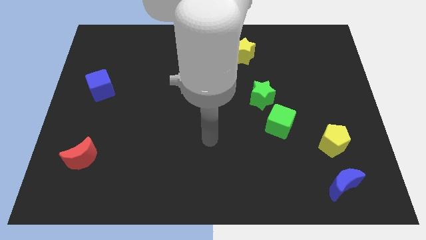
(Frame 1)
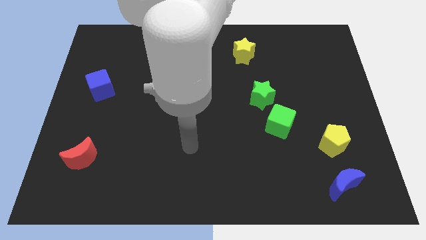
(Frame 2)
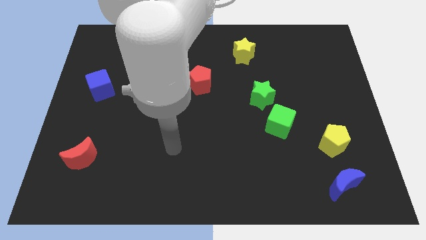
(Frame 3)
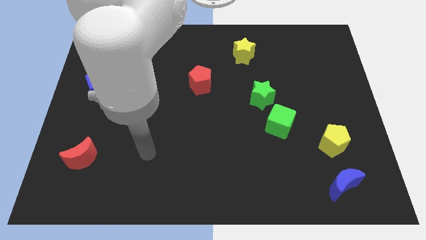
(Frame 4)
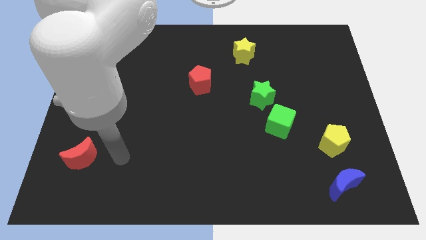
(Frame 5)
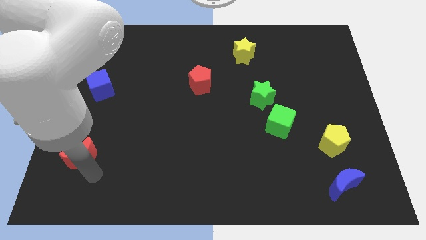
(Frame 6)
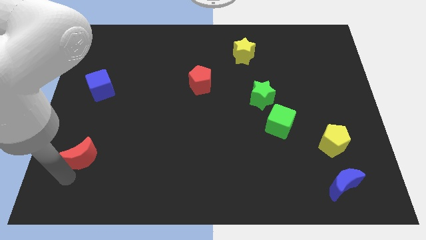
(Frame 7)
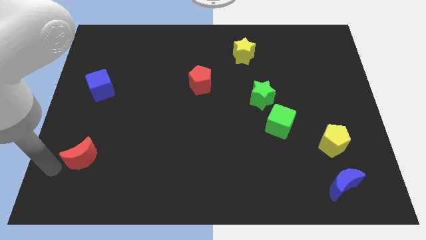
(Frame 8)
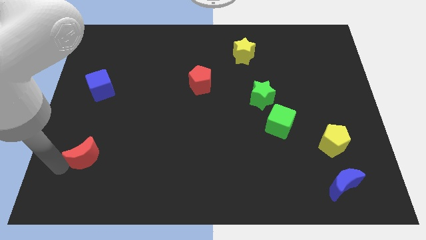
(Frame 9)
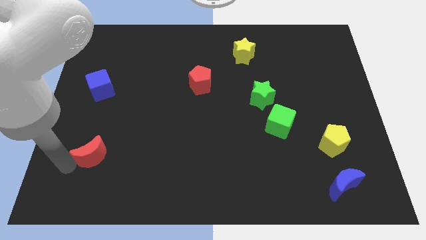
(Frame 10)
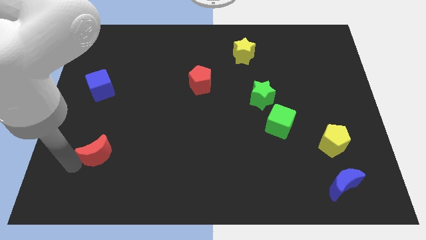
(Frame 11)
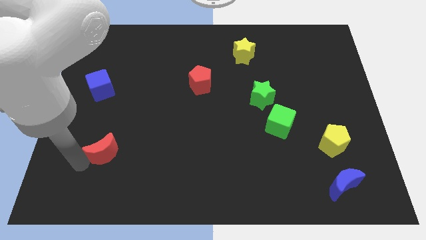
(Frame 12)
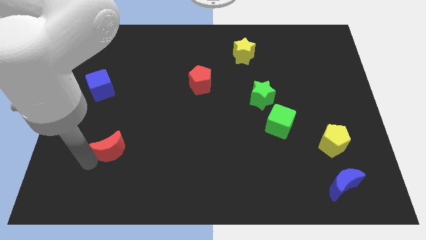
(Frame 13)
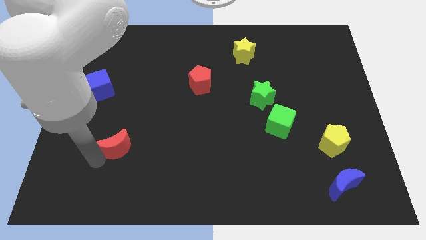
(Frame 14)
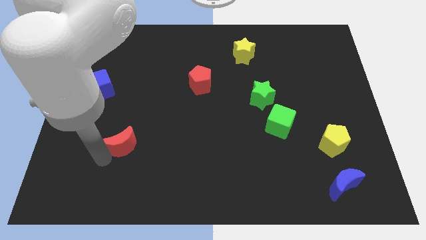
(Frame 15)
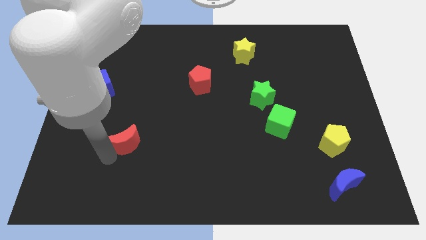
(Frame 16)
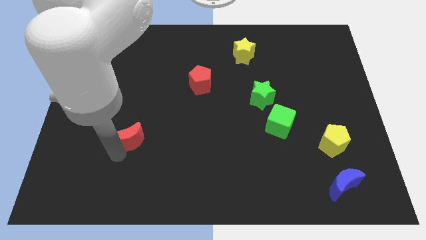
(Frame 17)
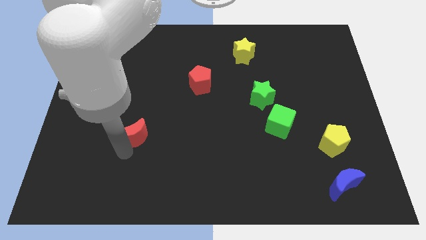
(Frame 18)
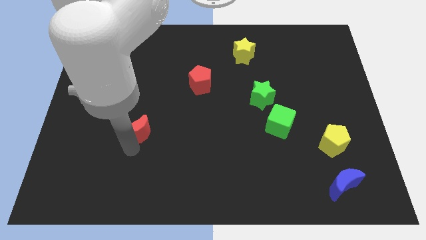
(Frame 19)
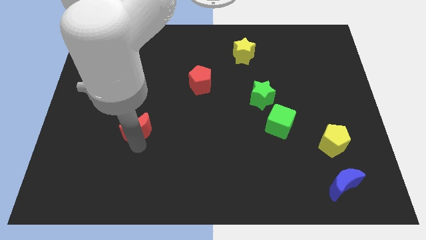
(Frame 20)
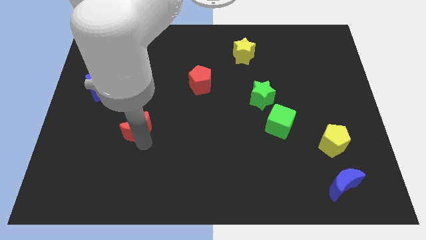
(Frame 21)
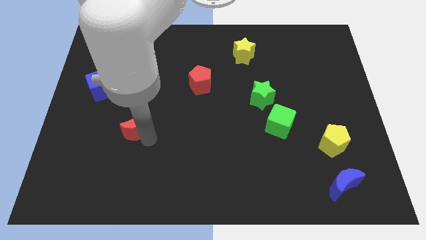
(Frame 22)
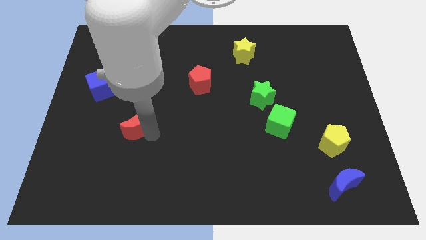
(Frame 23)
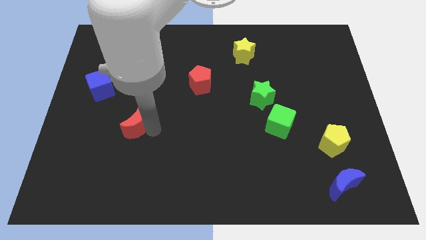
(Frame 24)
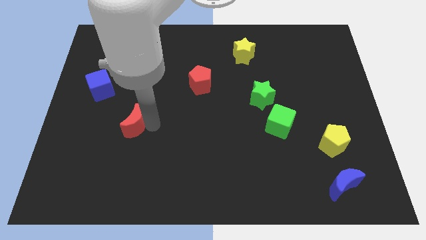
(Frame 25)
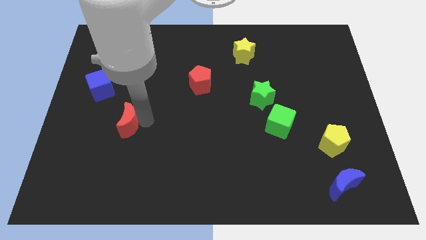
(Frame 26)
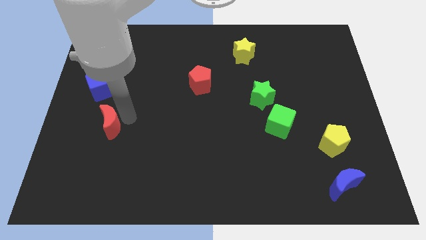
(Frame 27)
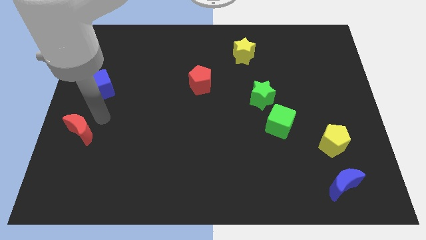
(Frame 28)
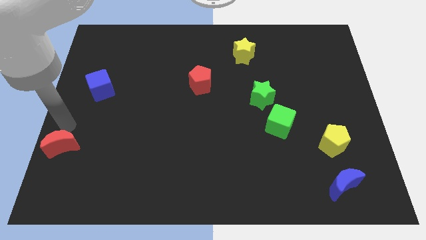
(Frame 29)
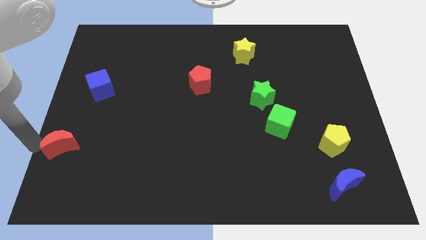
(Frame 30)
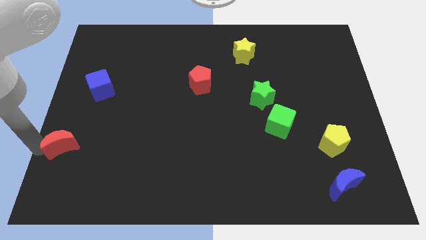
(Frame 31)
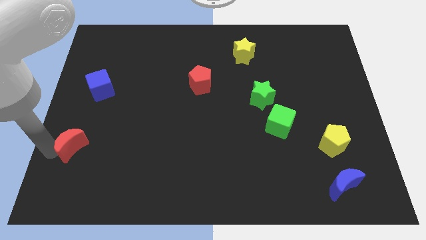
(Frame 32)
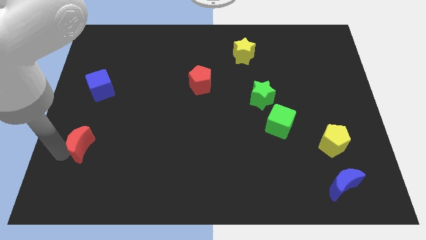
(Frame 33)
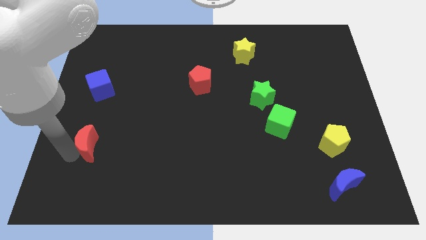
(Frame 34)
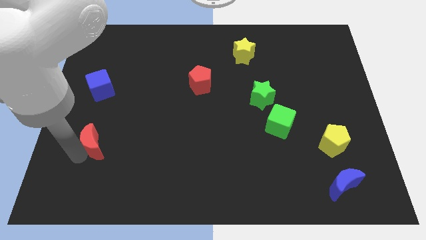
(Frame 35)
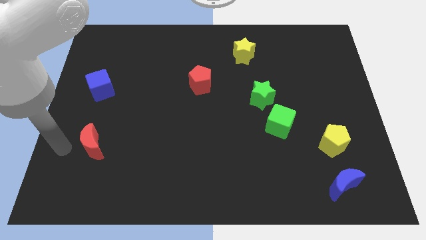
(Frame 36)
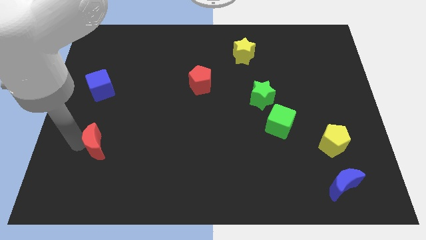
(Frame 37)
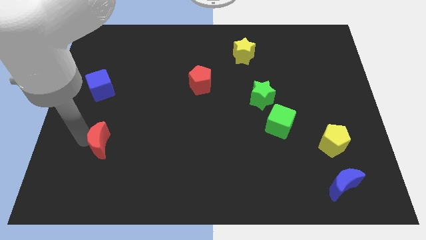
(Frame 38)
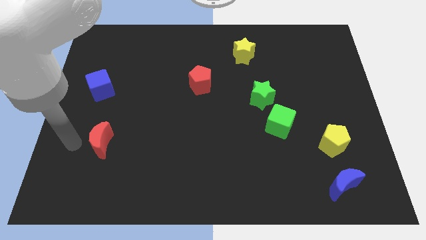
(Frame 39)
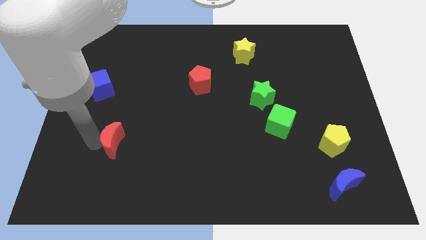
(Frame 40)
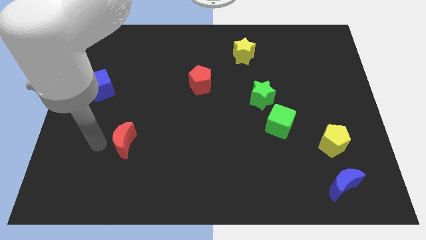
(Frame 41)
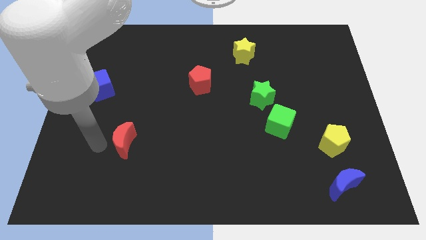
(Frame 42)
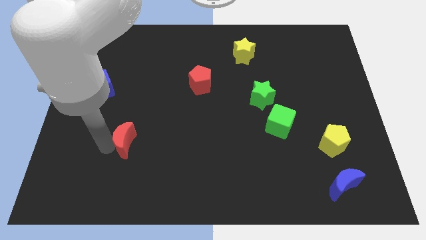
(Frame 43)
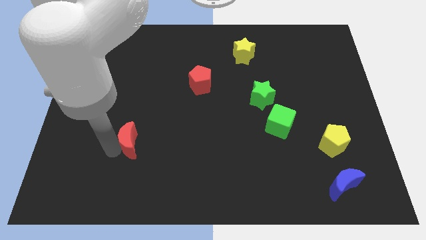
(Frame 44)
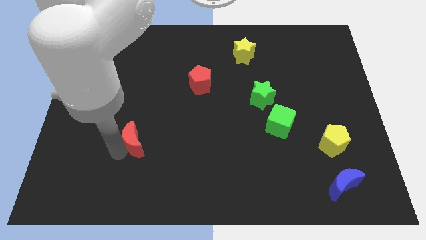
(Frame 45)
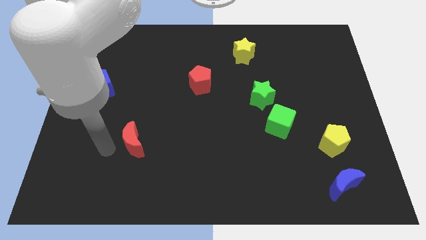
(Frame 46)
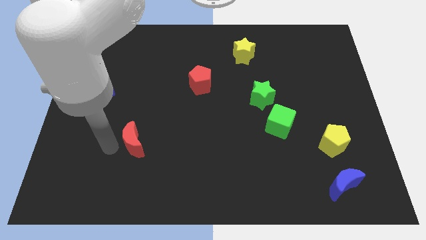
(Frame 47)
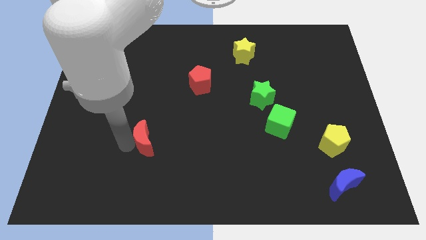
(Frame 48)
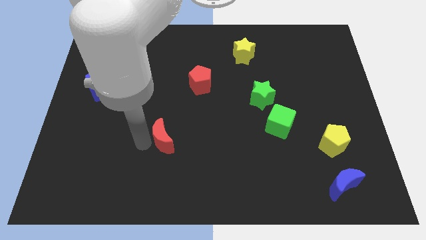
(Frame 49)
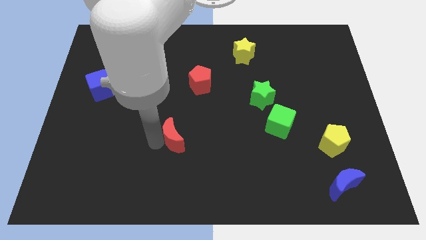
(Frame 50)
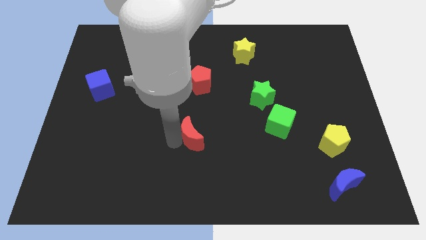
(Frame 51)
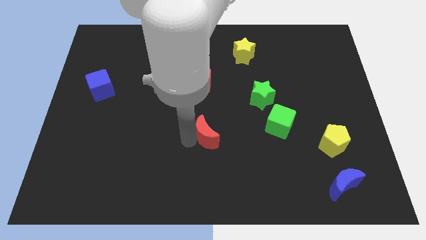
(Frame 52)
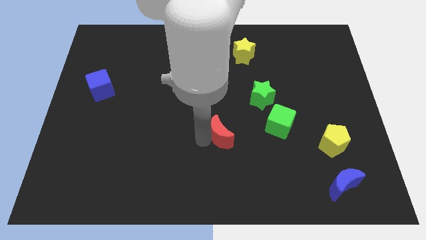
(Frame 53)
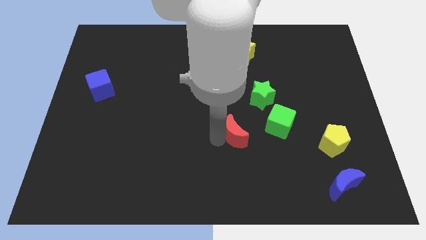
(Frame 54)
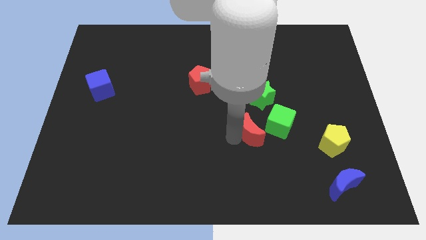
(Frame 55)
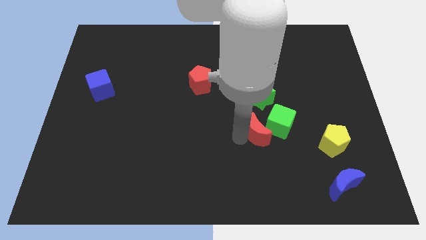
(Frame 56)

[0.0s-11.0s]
move the red moon close to the green cube
